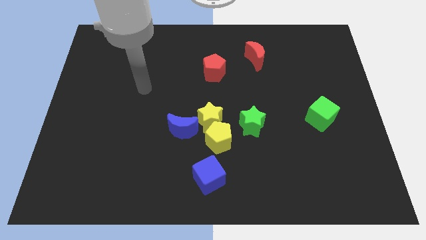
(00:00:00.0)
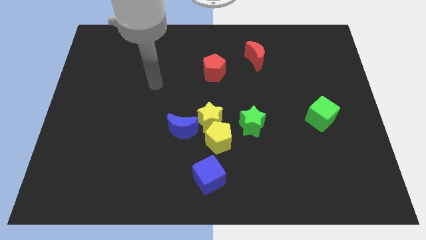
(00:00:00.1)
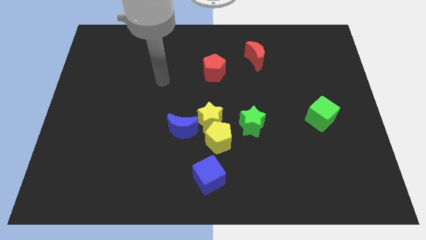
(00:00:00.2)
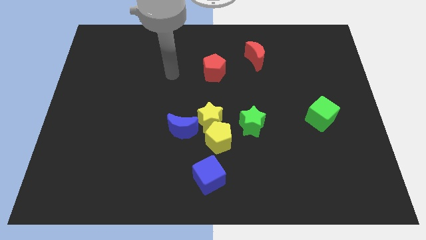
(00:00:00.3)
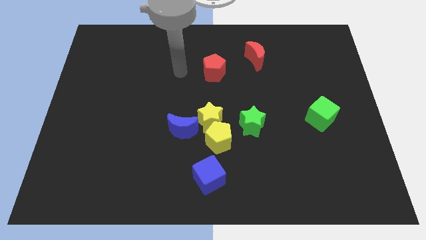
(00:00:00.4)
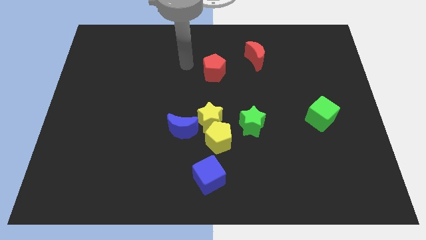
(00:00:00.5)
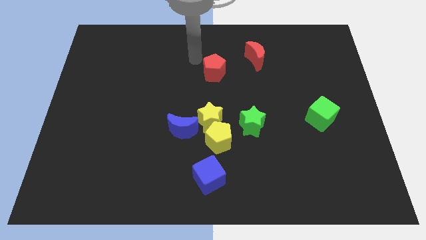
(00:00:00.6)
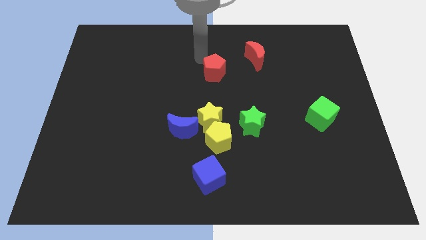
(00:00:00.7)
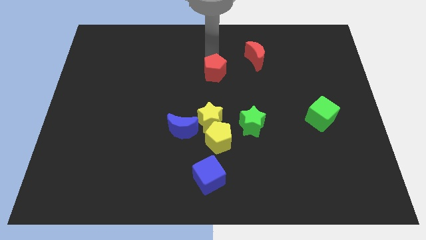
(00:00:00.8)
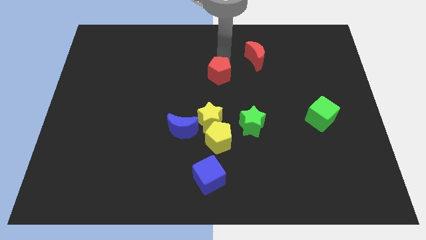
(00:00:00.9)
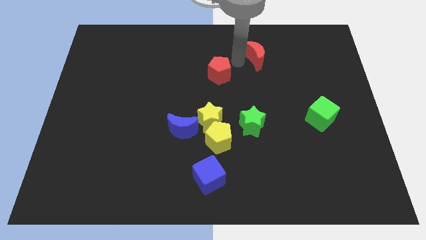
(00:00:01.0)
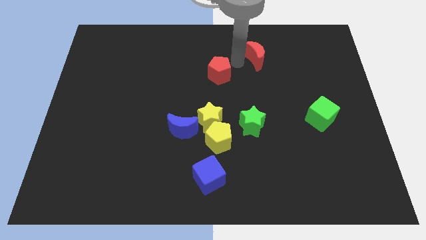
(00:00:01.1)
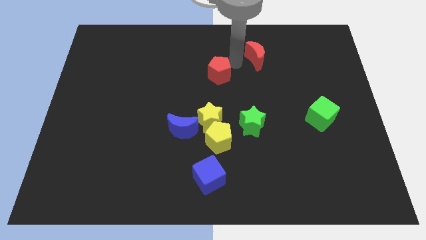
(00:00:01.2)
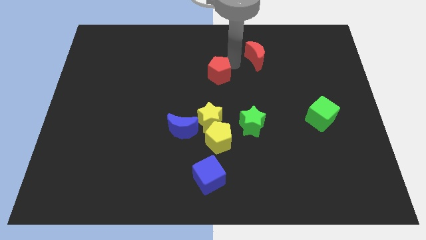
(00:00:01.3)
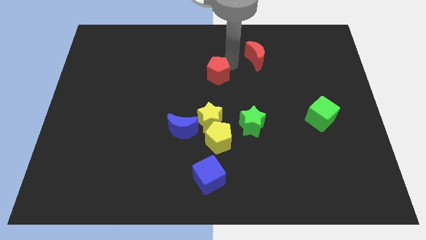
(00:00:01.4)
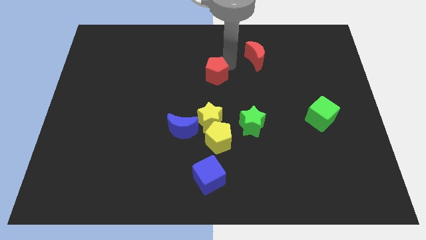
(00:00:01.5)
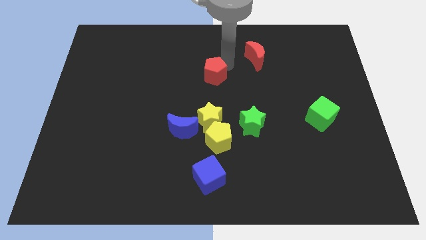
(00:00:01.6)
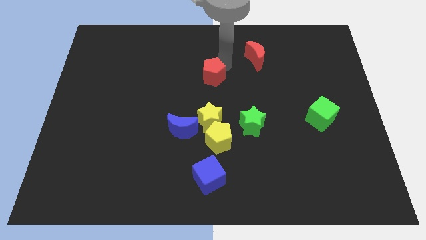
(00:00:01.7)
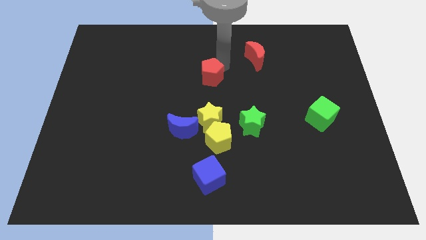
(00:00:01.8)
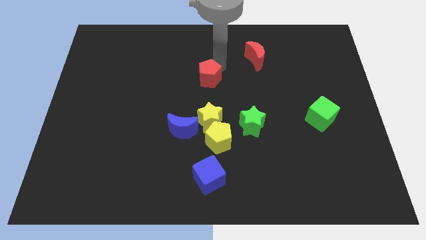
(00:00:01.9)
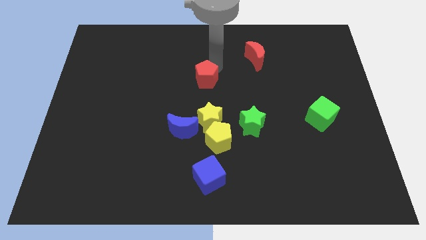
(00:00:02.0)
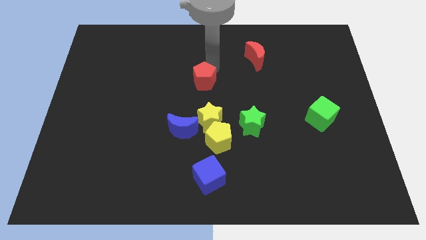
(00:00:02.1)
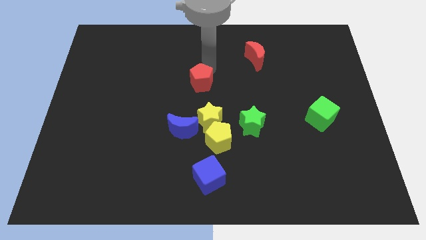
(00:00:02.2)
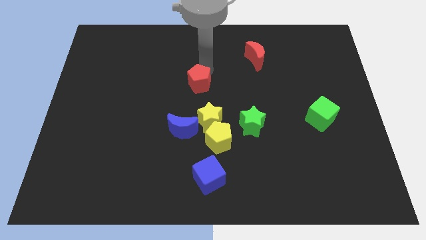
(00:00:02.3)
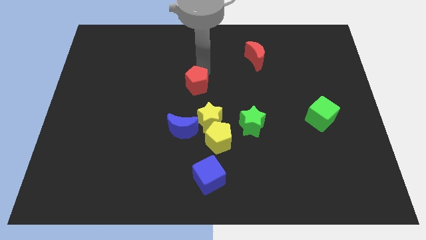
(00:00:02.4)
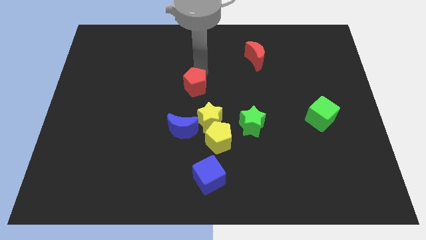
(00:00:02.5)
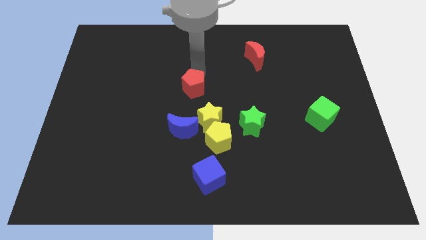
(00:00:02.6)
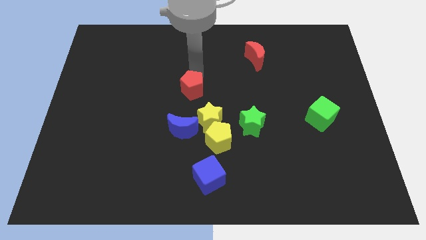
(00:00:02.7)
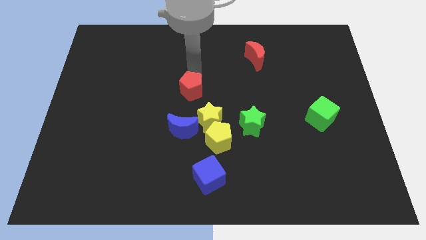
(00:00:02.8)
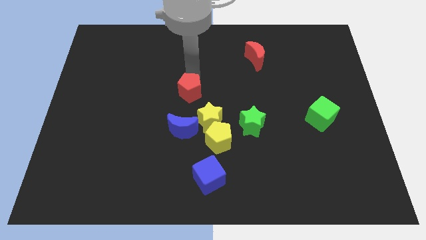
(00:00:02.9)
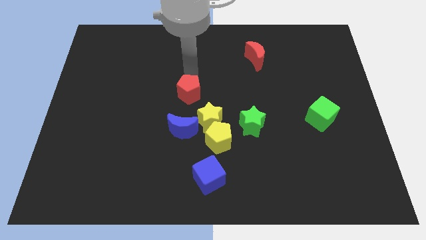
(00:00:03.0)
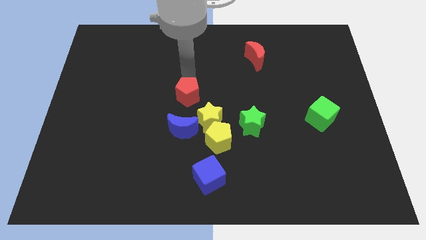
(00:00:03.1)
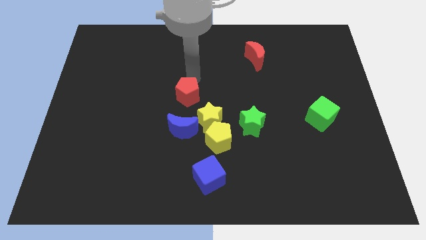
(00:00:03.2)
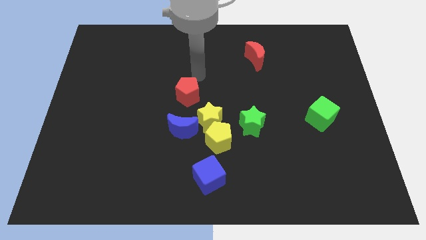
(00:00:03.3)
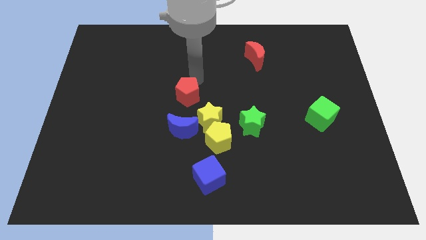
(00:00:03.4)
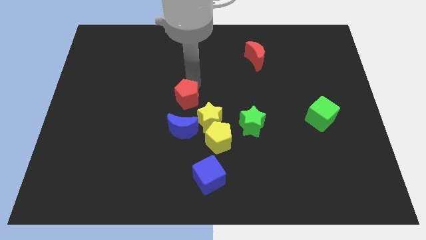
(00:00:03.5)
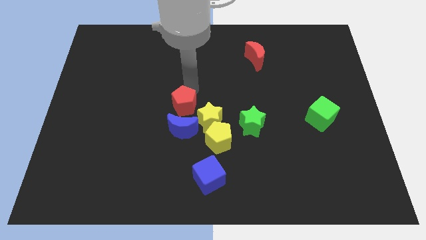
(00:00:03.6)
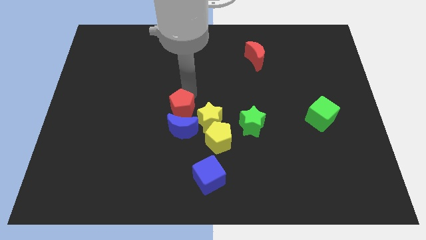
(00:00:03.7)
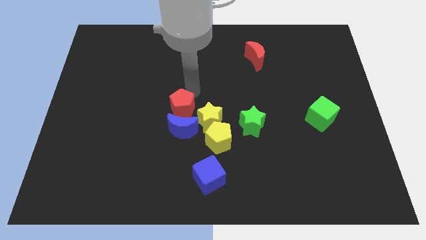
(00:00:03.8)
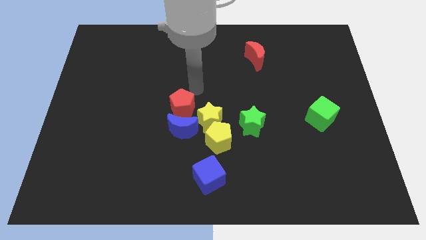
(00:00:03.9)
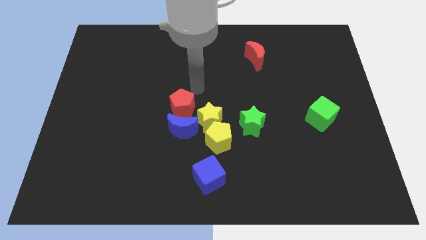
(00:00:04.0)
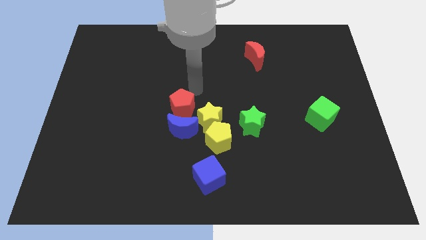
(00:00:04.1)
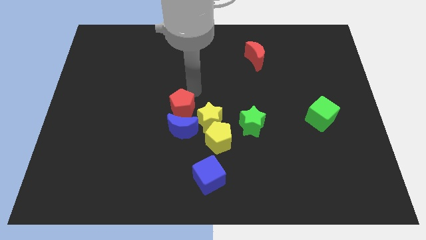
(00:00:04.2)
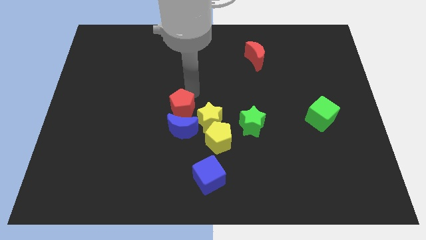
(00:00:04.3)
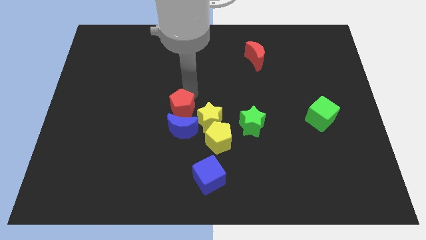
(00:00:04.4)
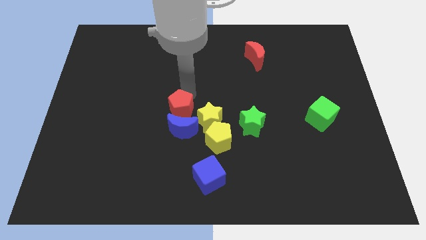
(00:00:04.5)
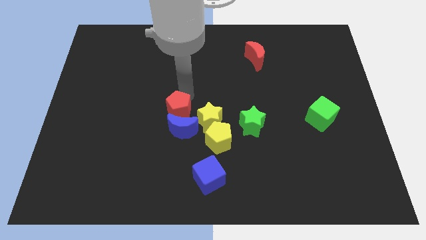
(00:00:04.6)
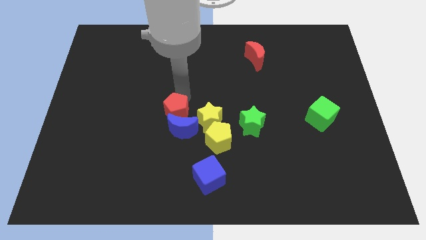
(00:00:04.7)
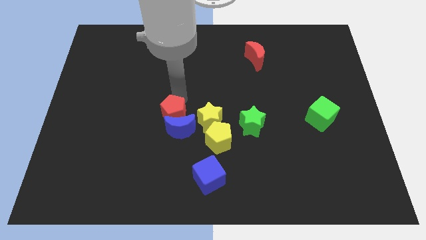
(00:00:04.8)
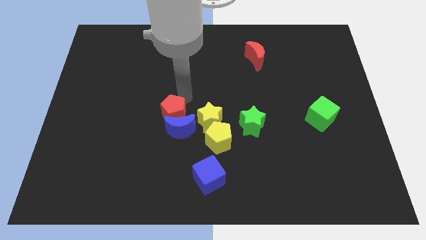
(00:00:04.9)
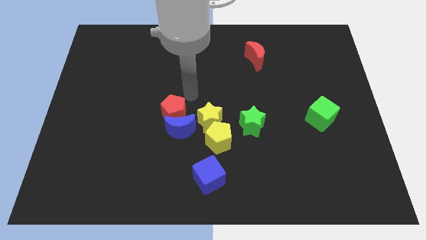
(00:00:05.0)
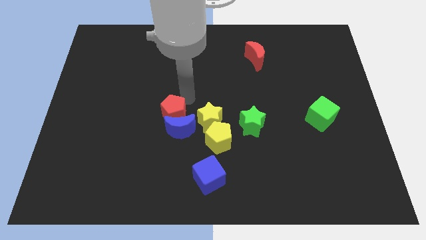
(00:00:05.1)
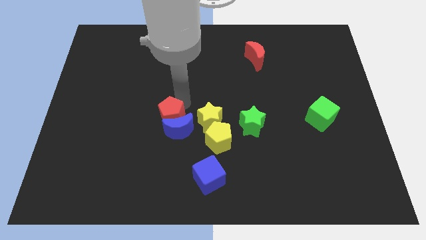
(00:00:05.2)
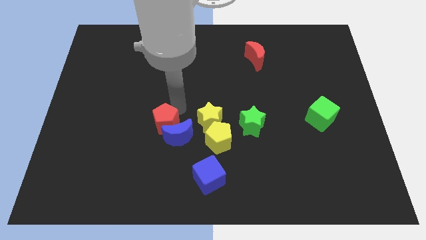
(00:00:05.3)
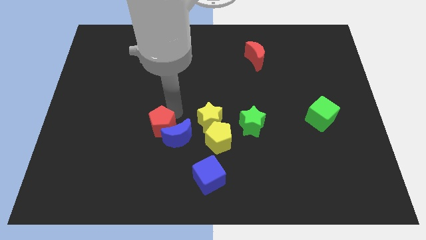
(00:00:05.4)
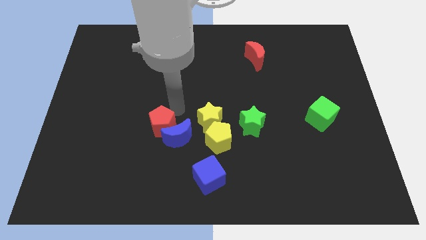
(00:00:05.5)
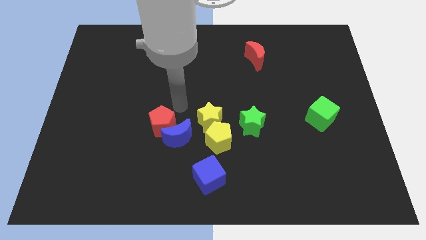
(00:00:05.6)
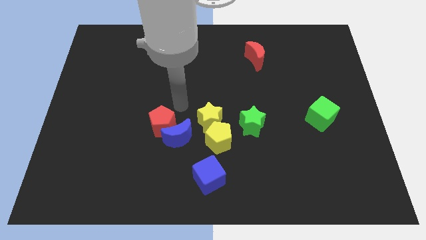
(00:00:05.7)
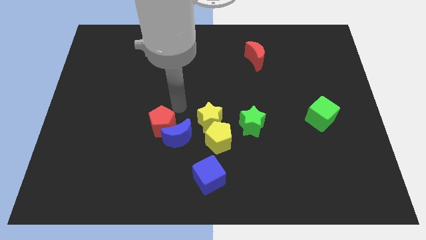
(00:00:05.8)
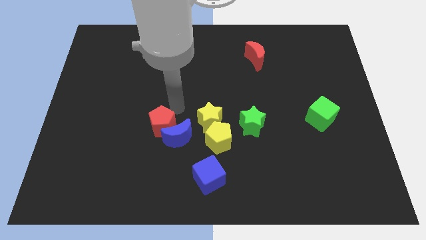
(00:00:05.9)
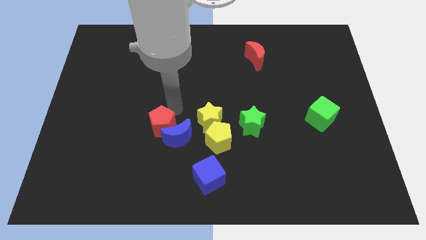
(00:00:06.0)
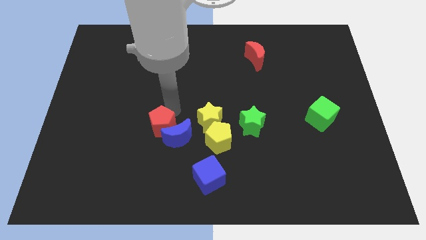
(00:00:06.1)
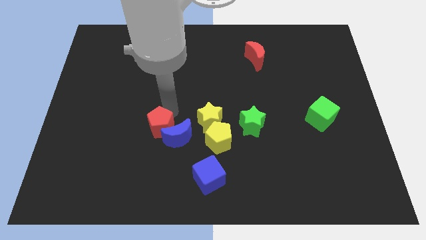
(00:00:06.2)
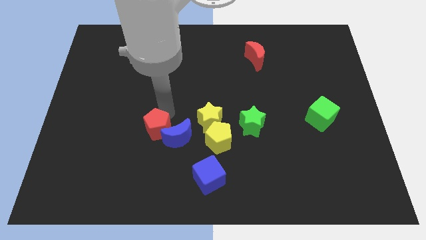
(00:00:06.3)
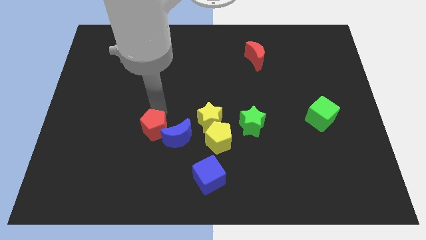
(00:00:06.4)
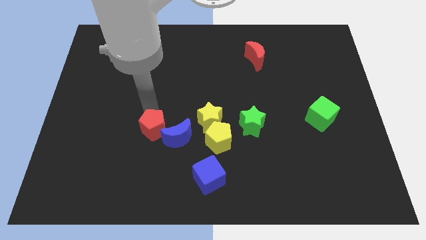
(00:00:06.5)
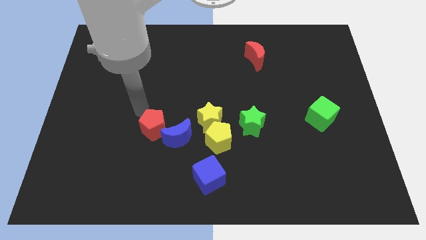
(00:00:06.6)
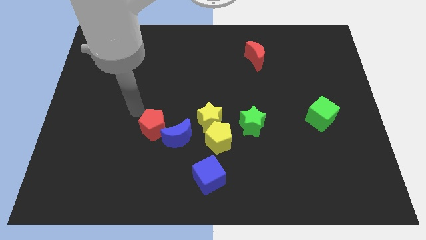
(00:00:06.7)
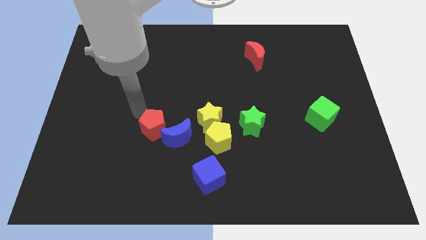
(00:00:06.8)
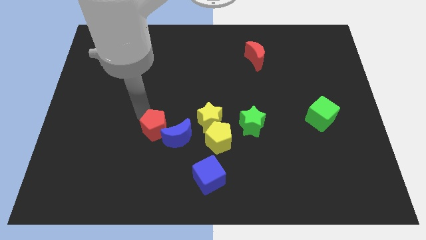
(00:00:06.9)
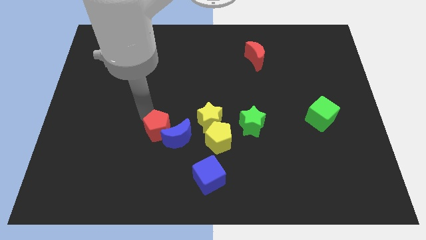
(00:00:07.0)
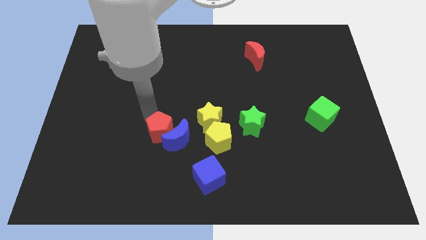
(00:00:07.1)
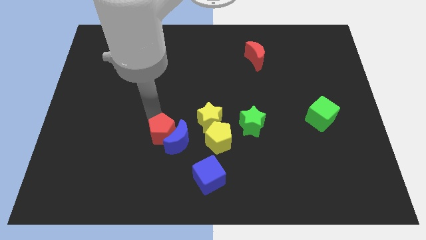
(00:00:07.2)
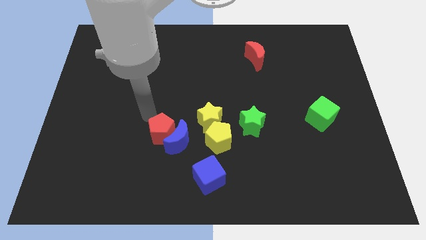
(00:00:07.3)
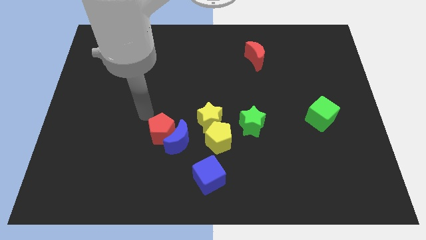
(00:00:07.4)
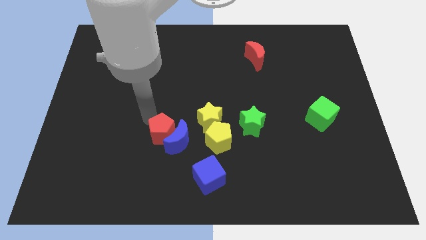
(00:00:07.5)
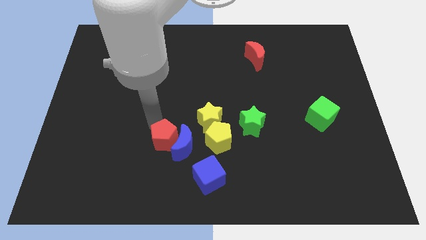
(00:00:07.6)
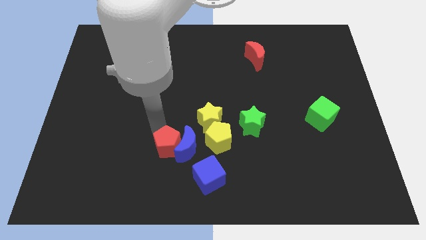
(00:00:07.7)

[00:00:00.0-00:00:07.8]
put the red pentagon to the top left side of the blue cube
